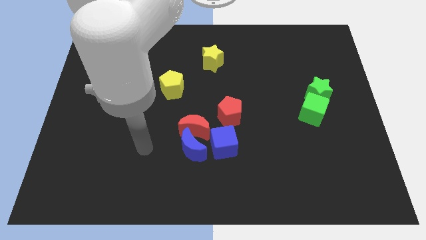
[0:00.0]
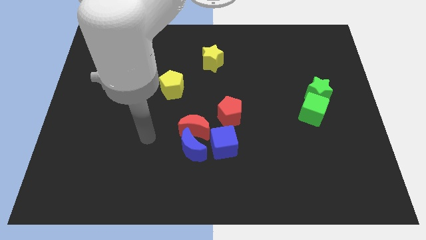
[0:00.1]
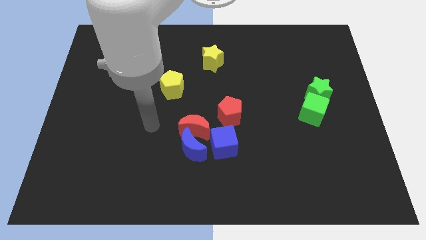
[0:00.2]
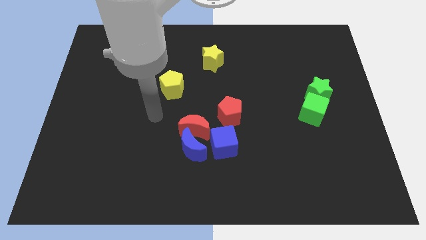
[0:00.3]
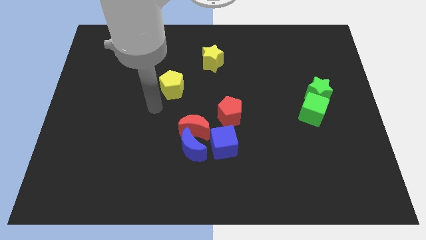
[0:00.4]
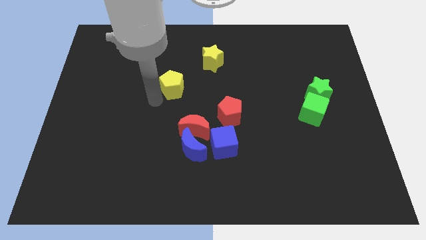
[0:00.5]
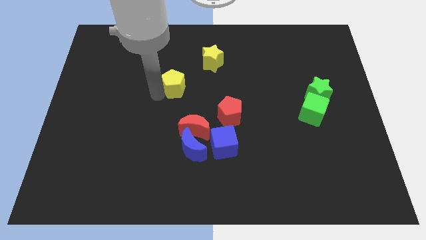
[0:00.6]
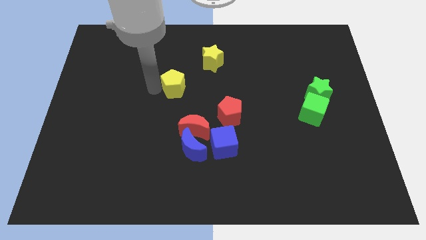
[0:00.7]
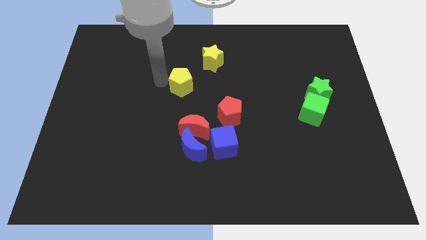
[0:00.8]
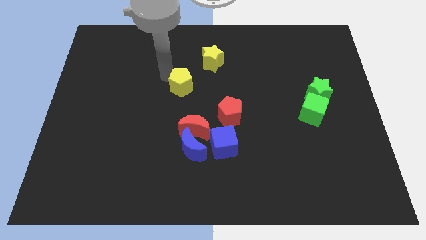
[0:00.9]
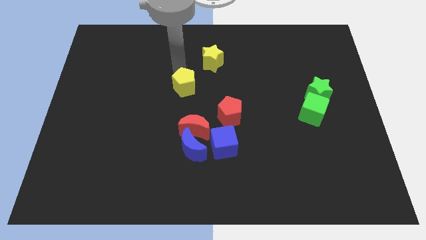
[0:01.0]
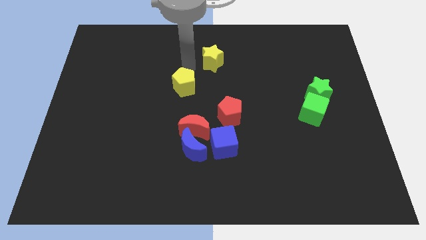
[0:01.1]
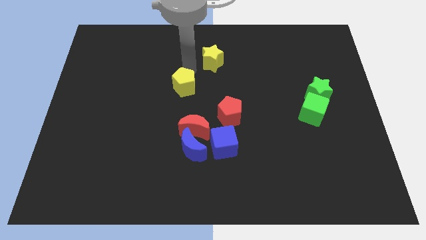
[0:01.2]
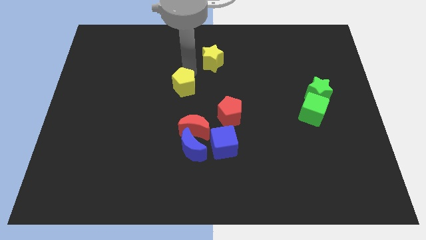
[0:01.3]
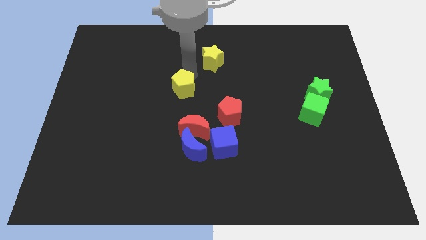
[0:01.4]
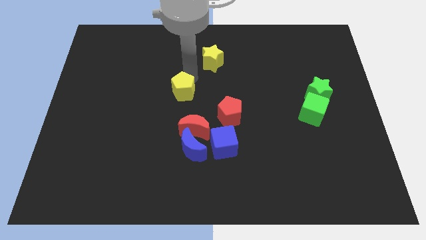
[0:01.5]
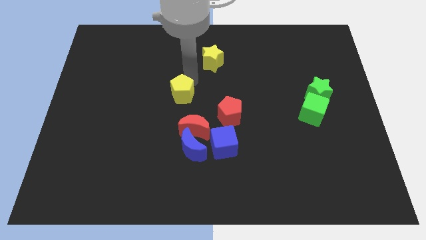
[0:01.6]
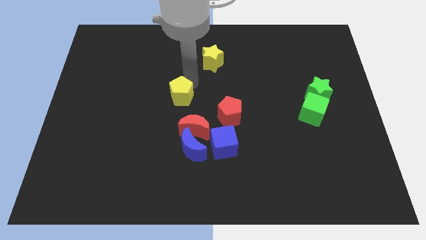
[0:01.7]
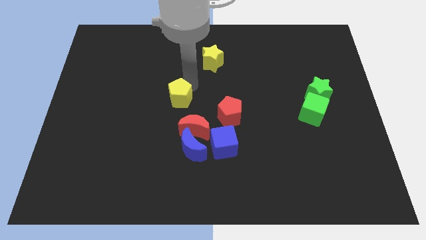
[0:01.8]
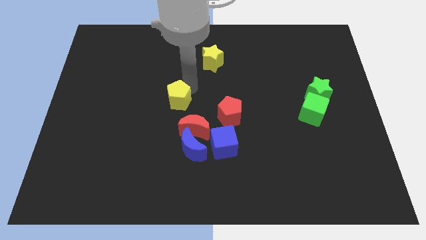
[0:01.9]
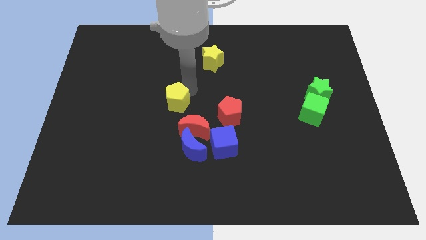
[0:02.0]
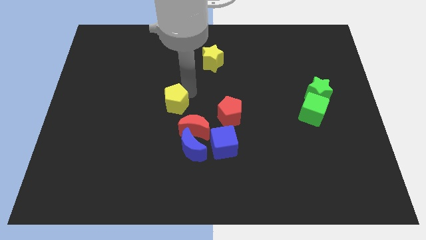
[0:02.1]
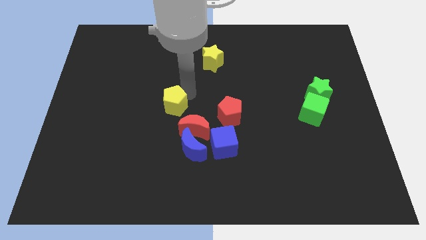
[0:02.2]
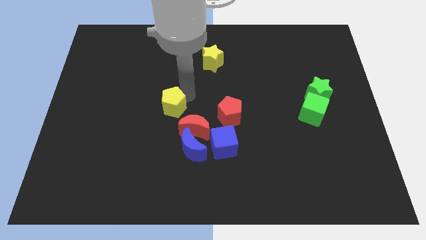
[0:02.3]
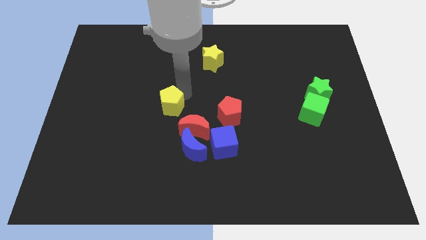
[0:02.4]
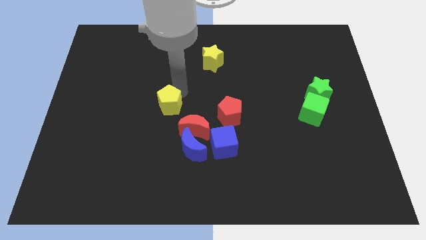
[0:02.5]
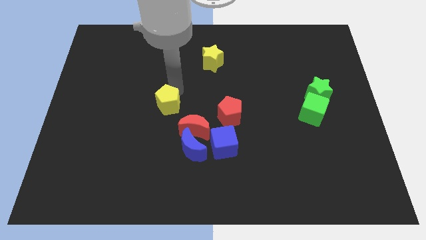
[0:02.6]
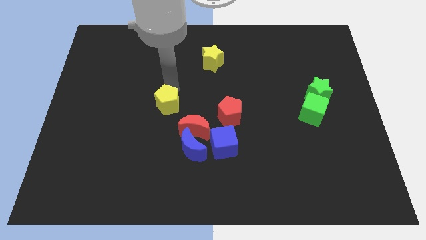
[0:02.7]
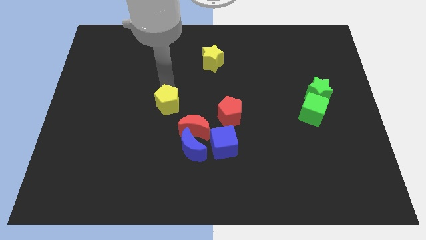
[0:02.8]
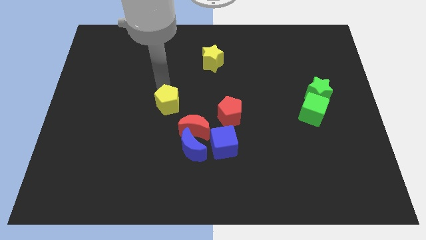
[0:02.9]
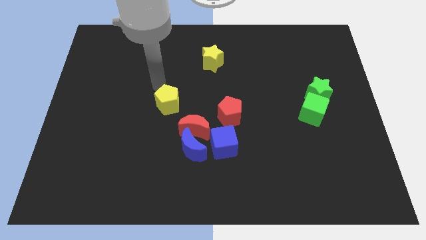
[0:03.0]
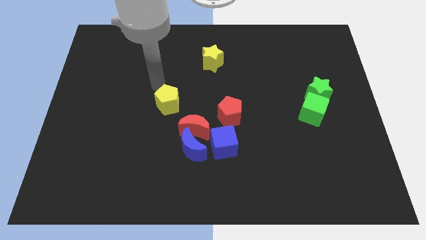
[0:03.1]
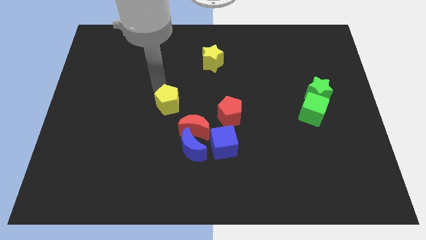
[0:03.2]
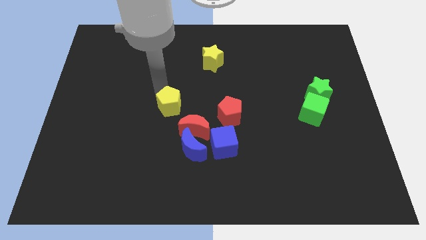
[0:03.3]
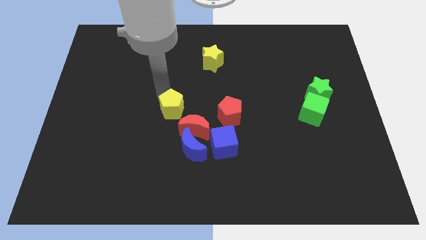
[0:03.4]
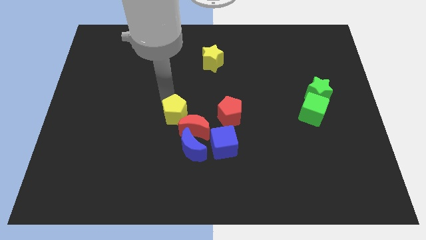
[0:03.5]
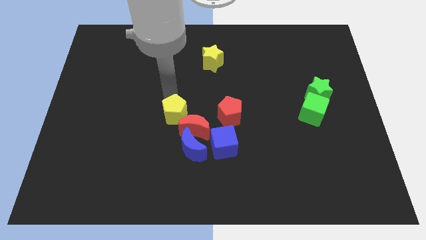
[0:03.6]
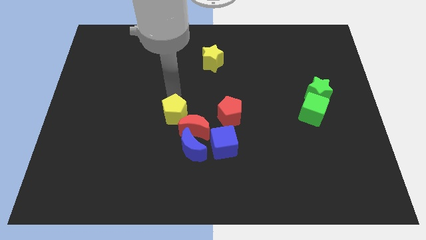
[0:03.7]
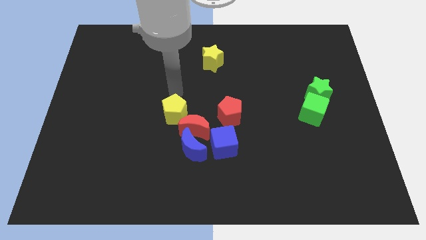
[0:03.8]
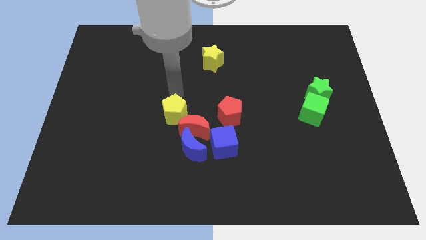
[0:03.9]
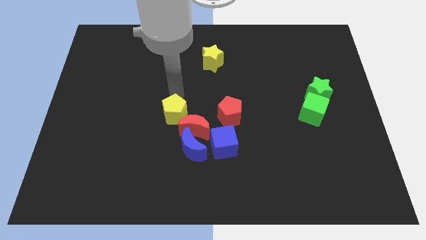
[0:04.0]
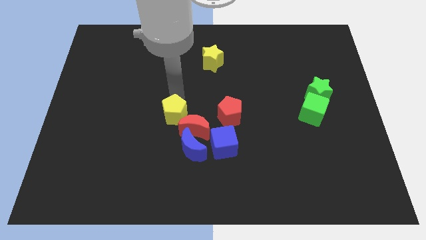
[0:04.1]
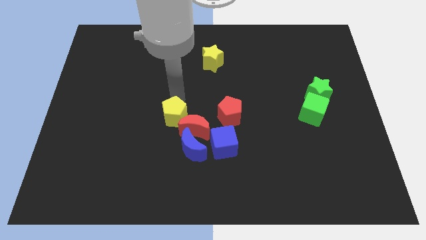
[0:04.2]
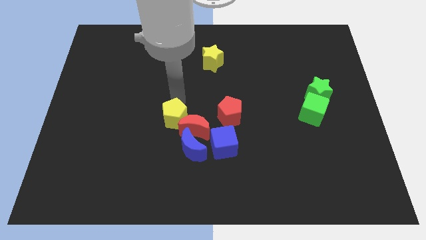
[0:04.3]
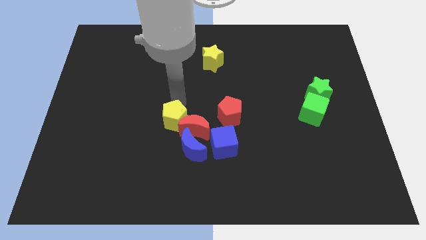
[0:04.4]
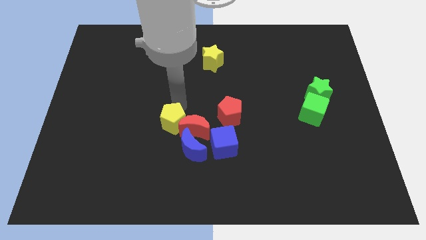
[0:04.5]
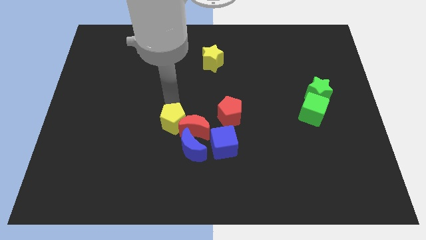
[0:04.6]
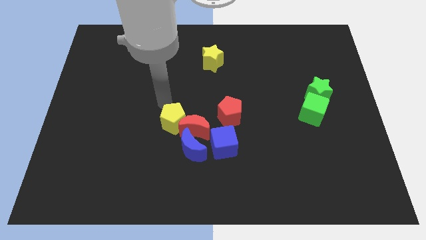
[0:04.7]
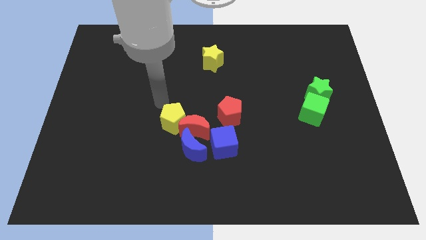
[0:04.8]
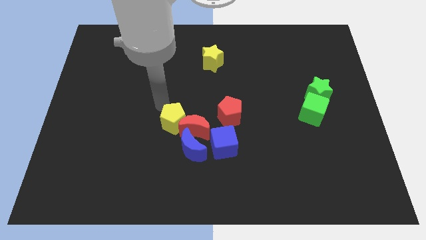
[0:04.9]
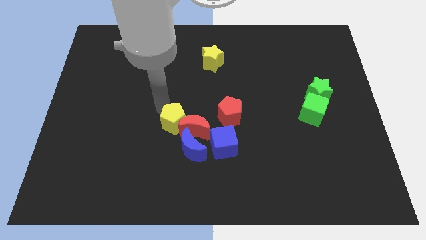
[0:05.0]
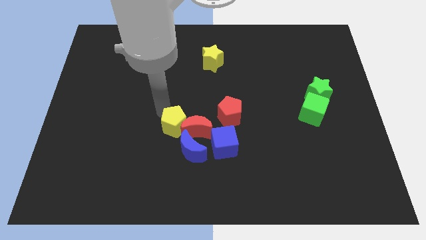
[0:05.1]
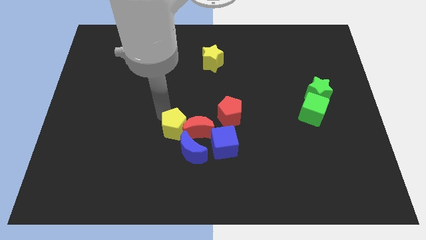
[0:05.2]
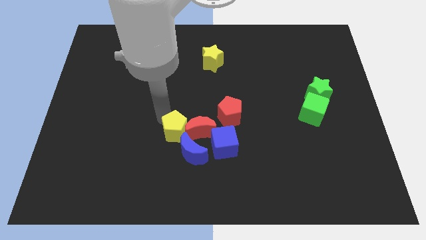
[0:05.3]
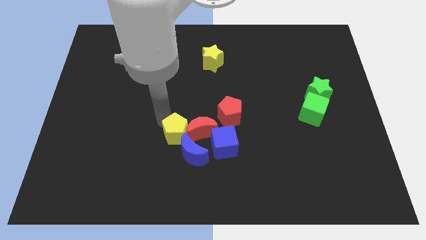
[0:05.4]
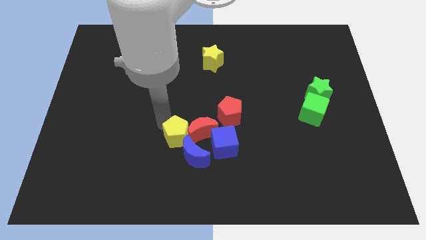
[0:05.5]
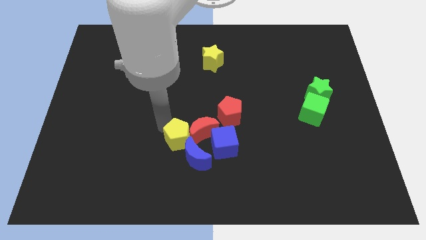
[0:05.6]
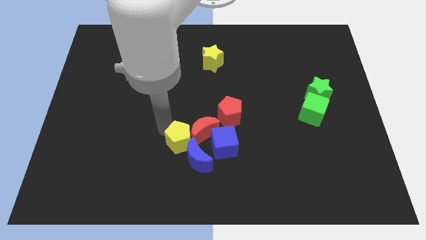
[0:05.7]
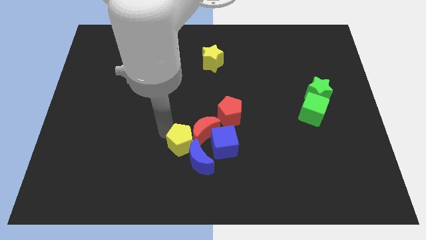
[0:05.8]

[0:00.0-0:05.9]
push the yellow pentagon close to the blue moon

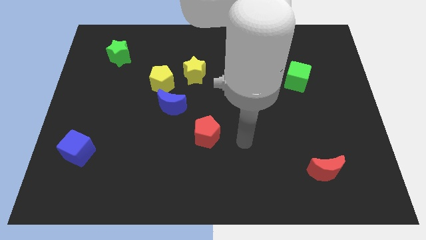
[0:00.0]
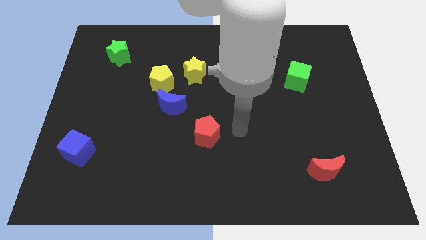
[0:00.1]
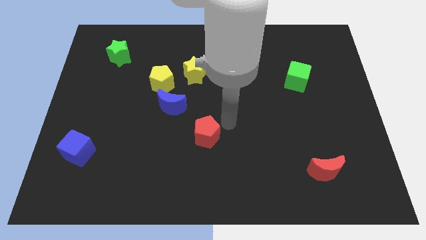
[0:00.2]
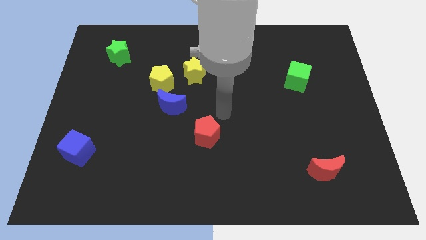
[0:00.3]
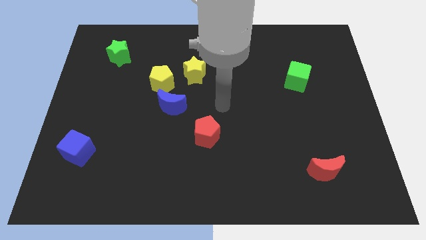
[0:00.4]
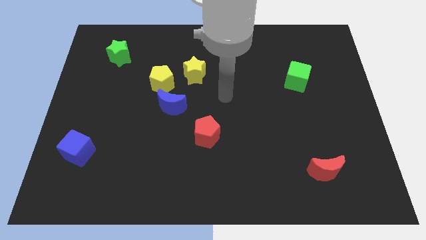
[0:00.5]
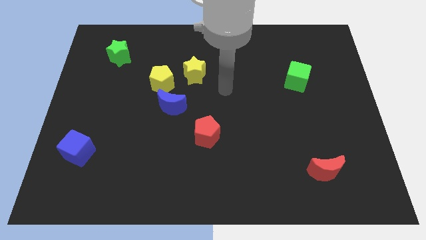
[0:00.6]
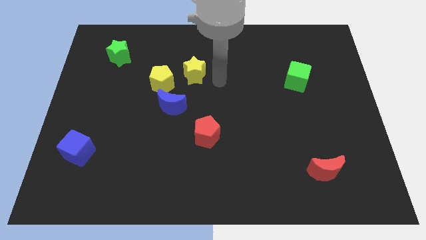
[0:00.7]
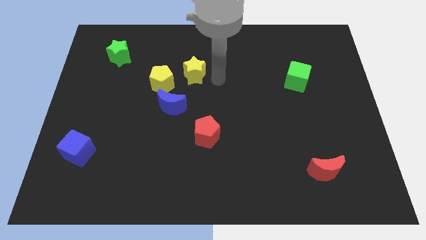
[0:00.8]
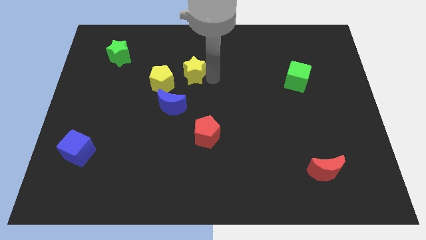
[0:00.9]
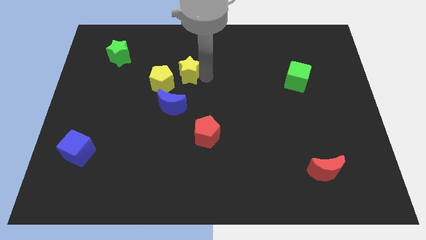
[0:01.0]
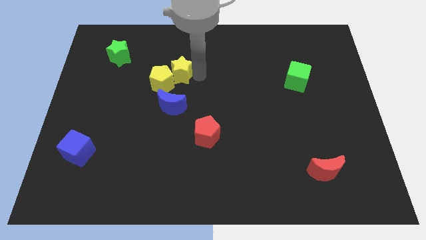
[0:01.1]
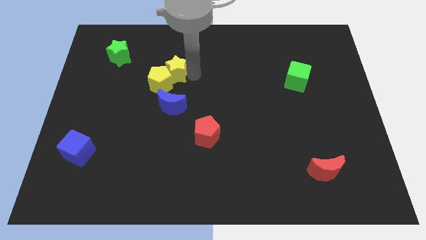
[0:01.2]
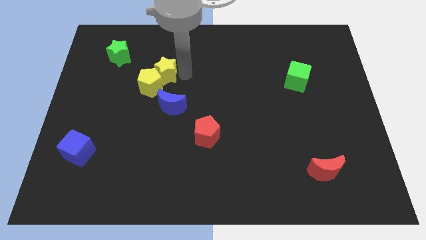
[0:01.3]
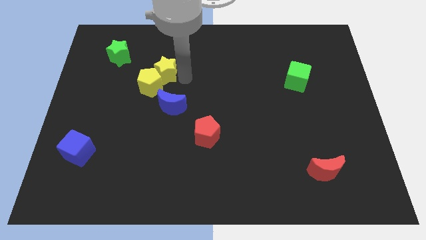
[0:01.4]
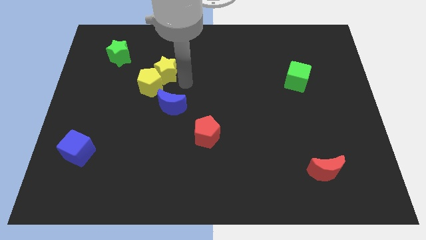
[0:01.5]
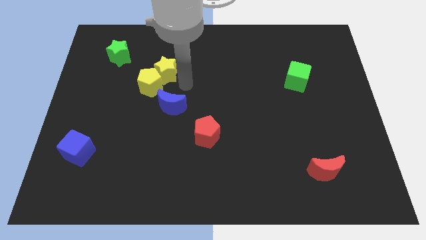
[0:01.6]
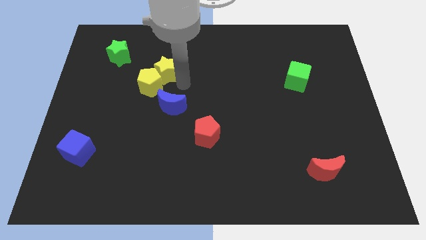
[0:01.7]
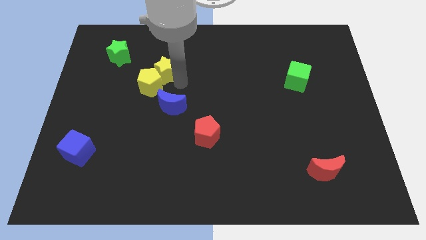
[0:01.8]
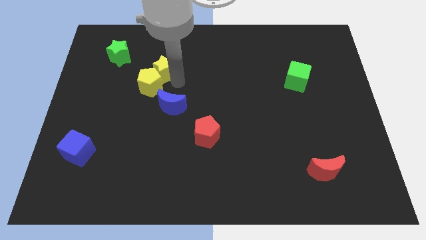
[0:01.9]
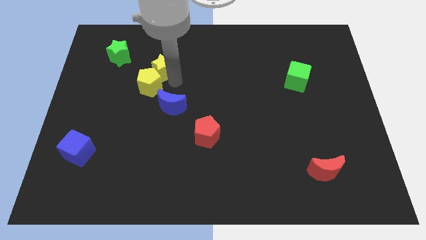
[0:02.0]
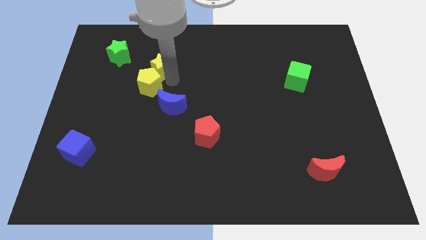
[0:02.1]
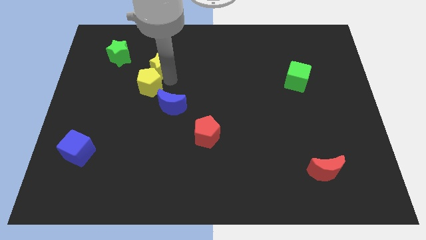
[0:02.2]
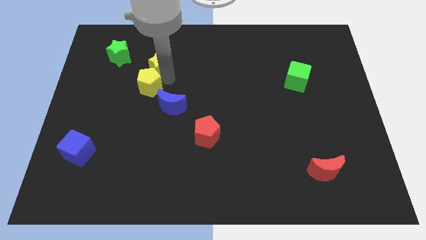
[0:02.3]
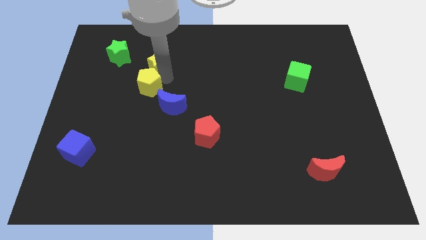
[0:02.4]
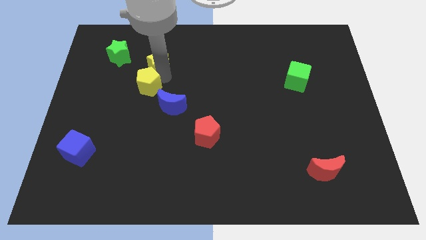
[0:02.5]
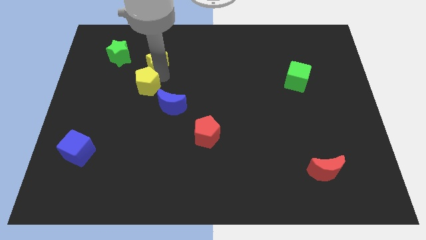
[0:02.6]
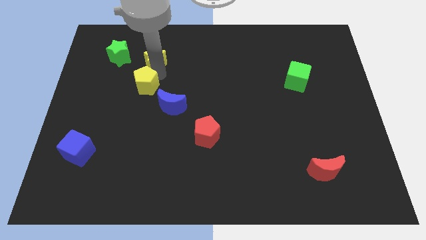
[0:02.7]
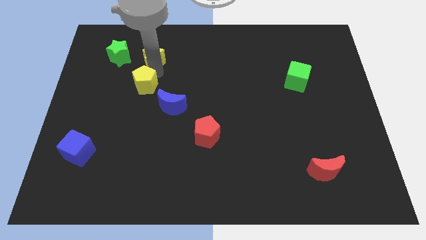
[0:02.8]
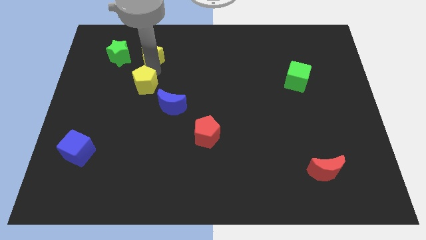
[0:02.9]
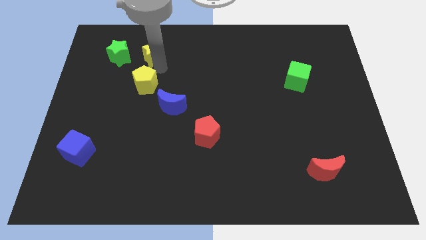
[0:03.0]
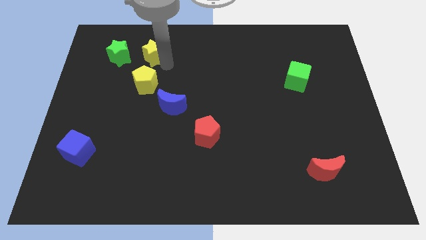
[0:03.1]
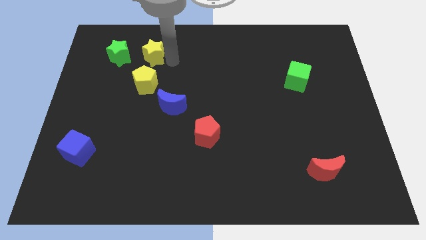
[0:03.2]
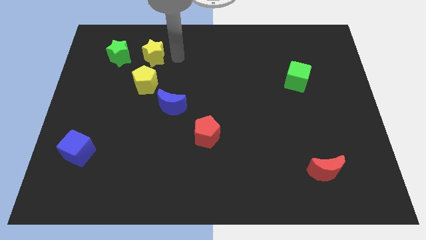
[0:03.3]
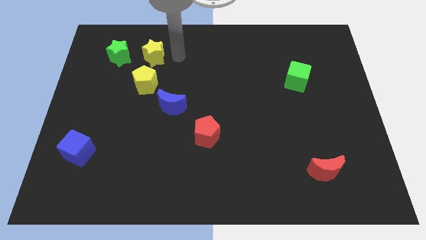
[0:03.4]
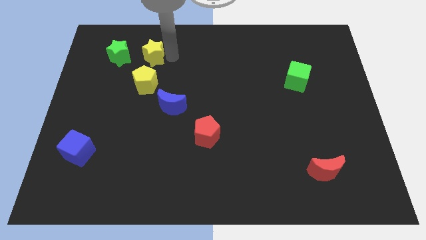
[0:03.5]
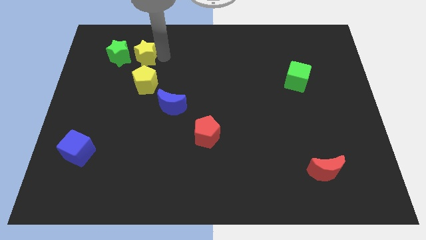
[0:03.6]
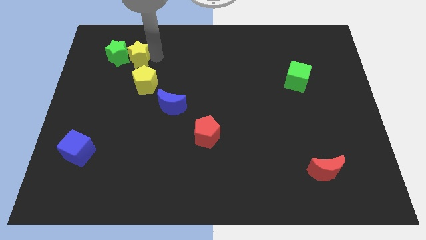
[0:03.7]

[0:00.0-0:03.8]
move the yellow star close to the green star
